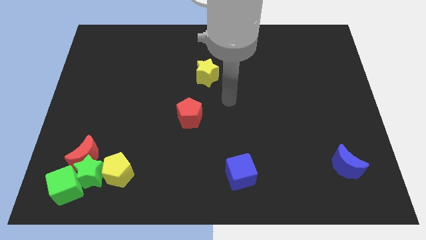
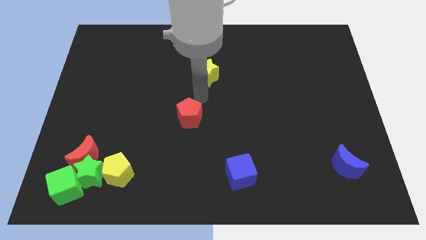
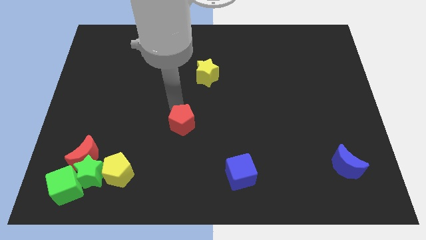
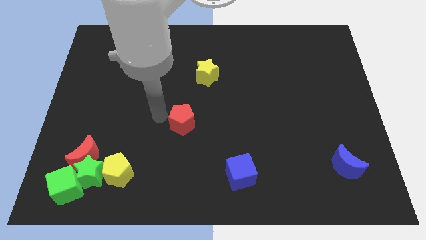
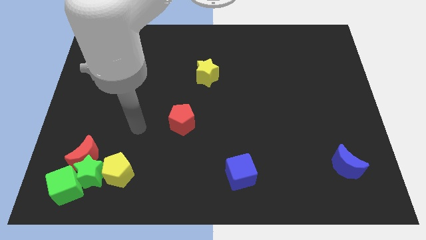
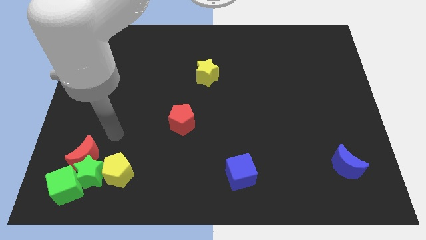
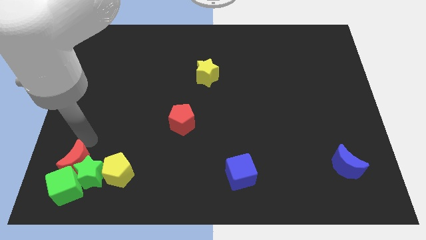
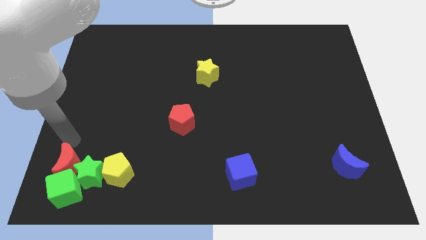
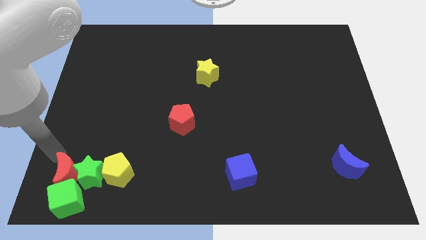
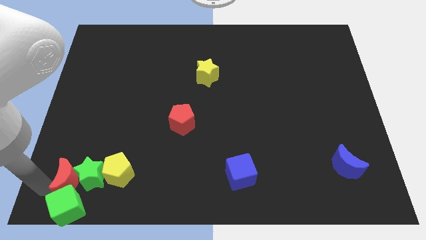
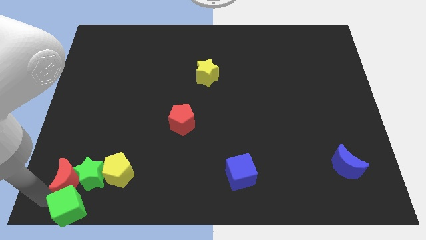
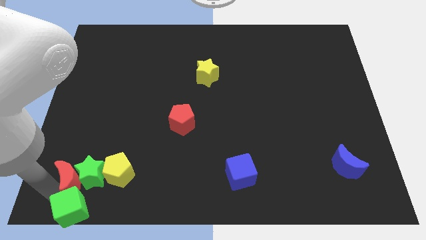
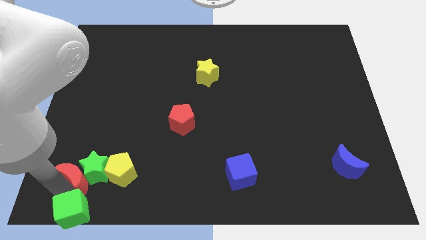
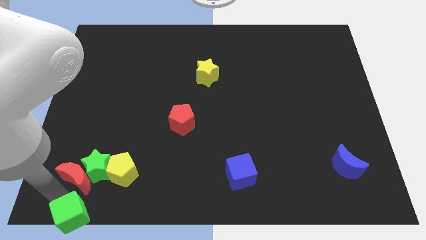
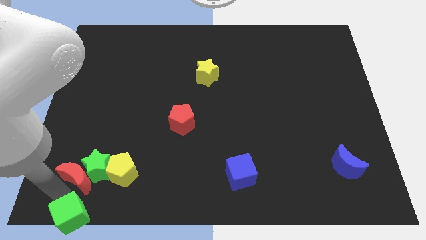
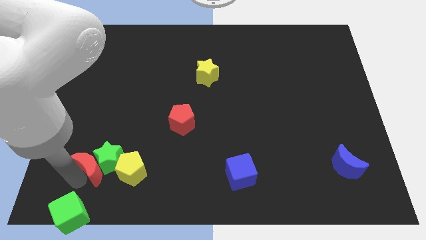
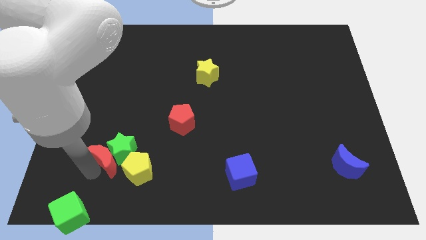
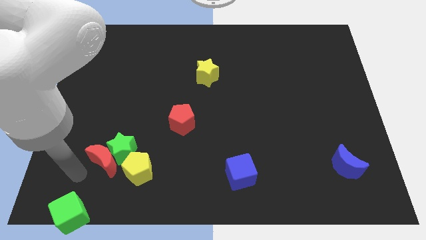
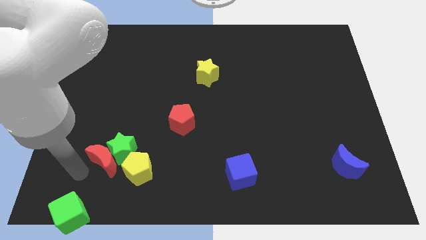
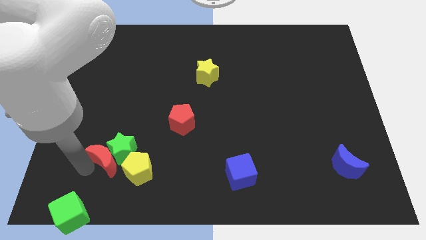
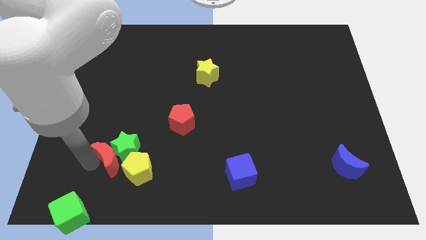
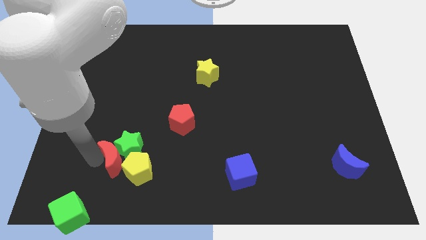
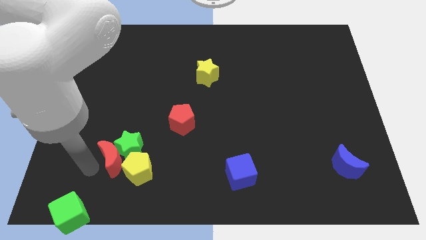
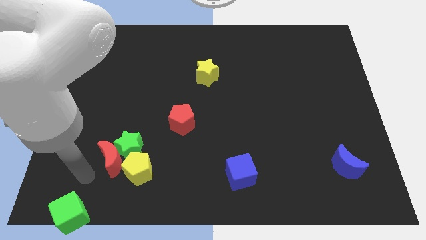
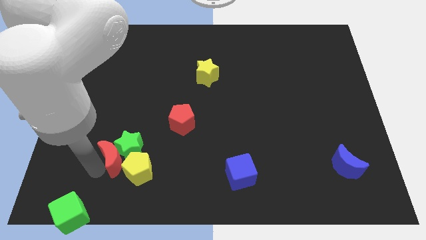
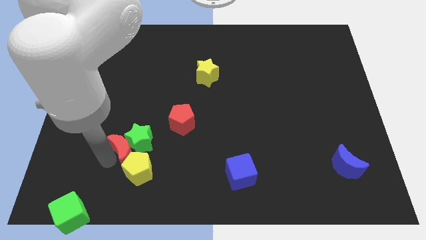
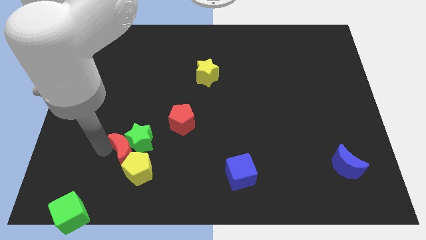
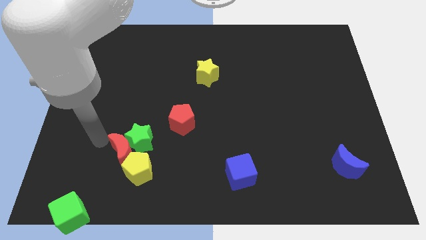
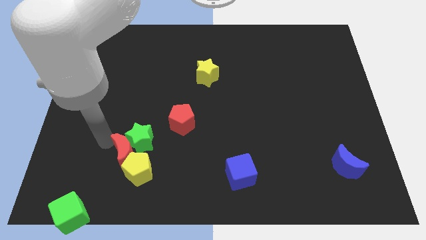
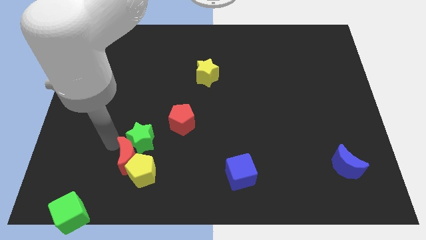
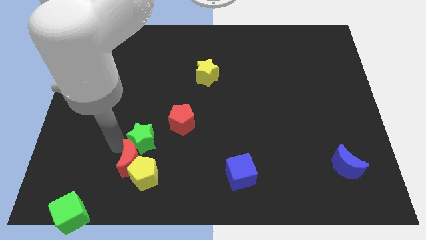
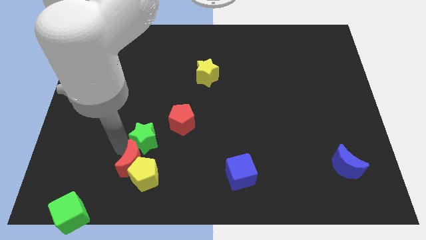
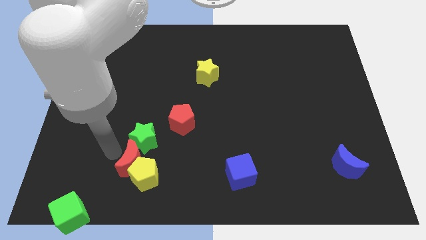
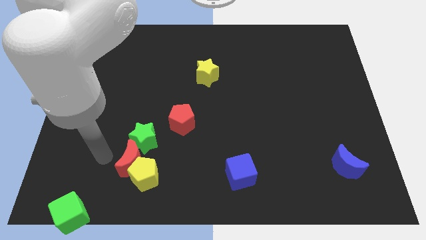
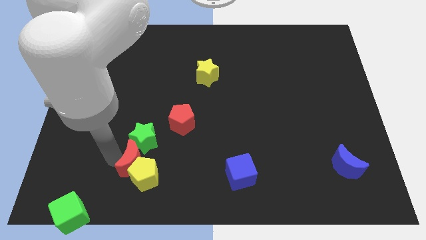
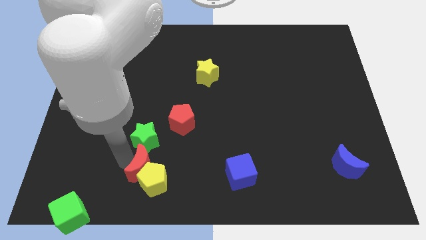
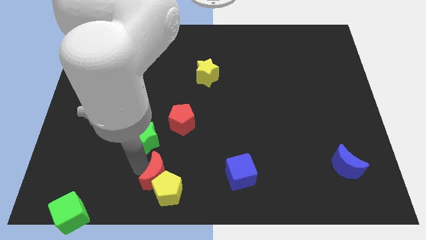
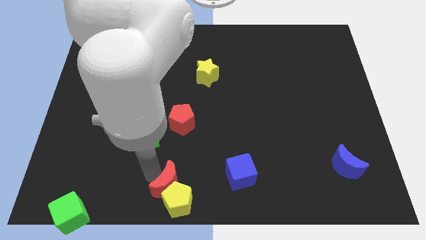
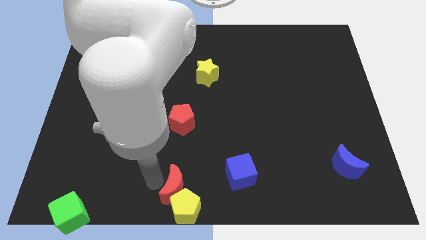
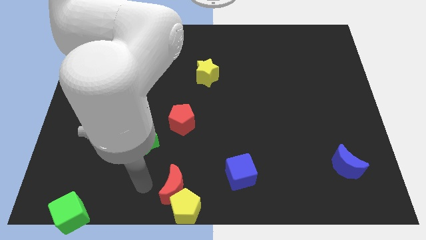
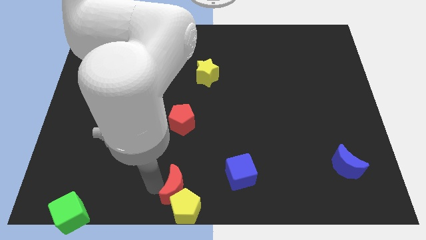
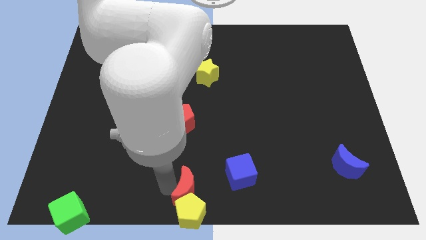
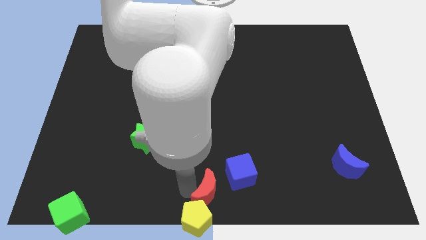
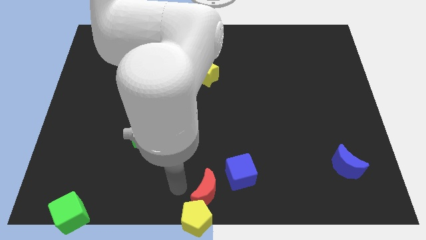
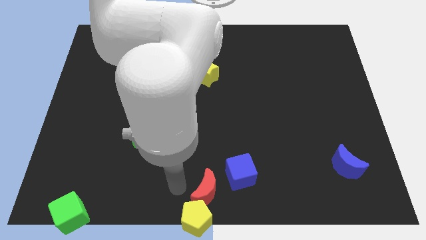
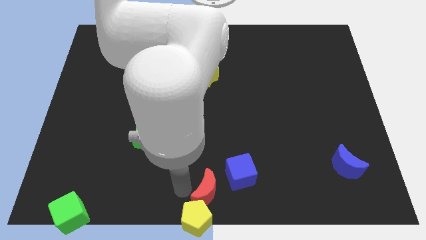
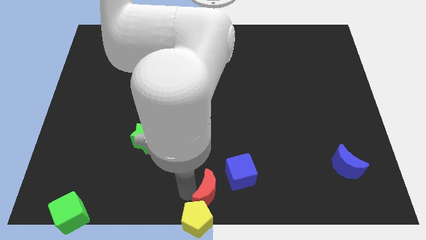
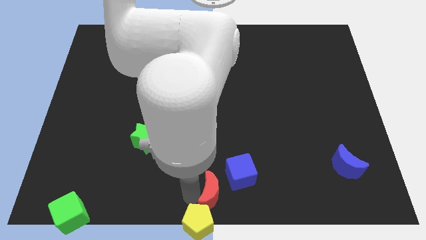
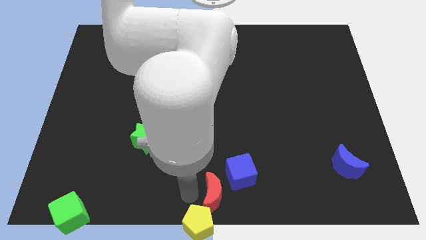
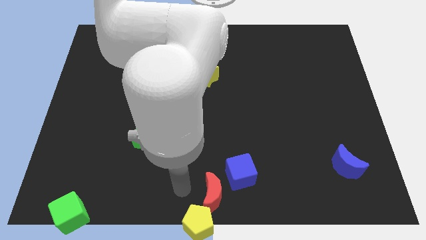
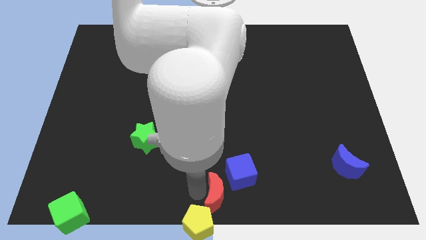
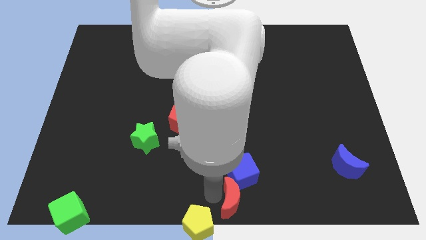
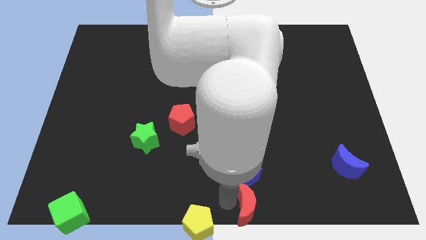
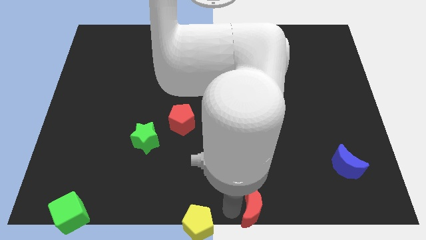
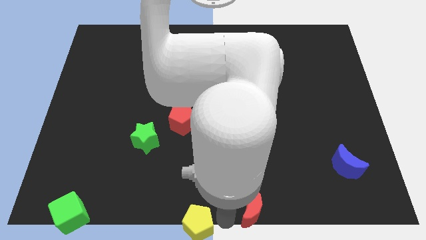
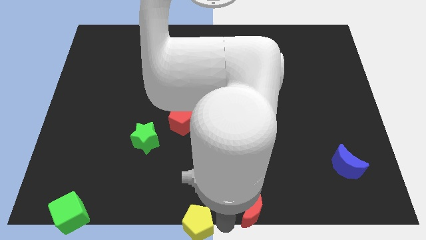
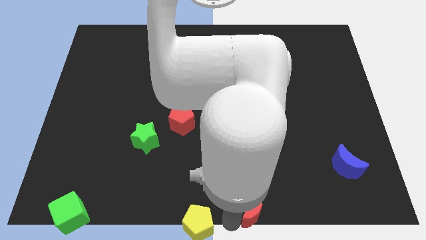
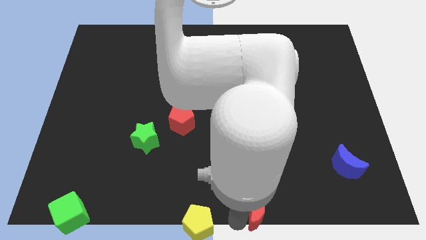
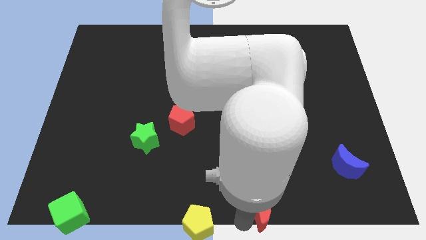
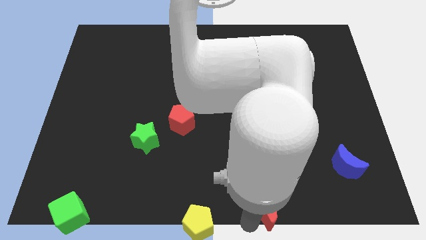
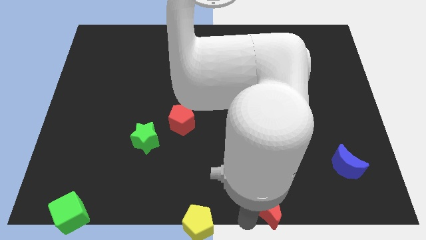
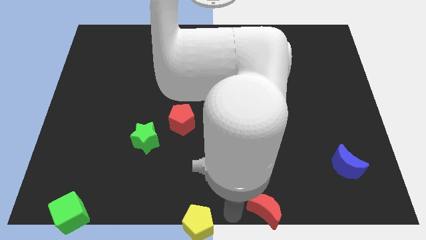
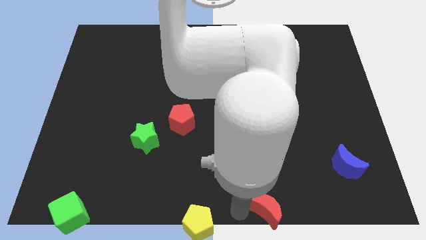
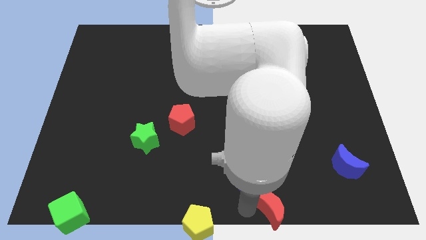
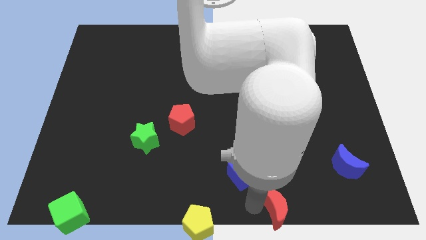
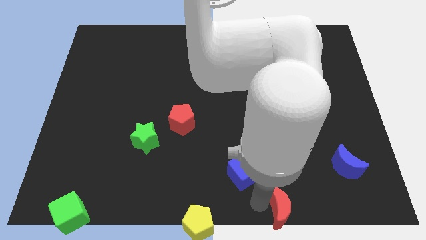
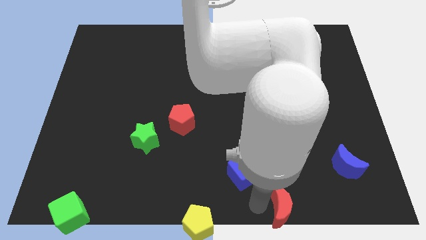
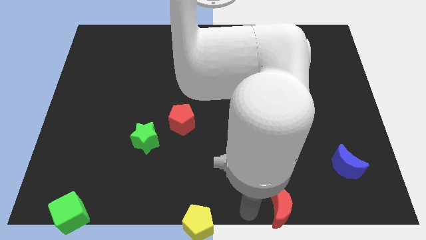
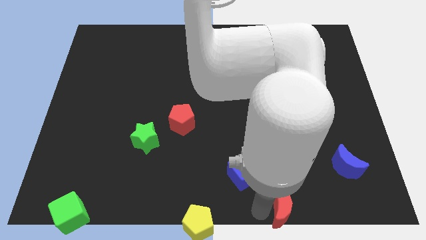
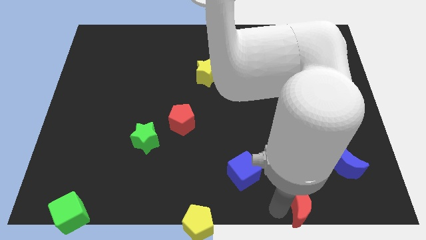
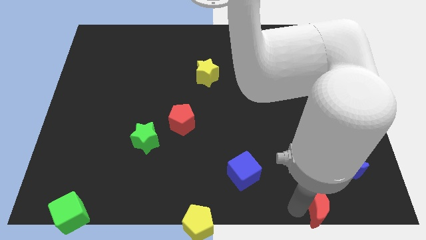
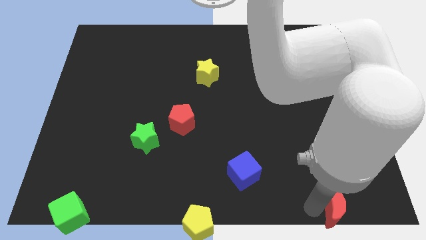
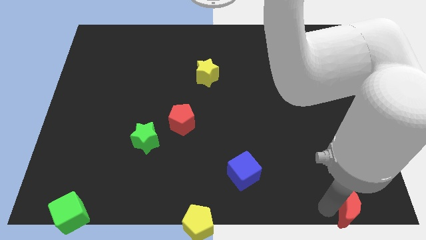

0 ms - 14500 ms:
move the red moon to the lower right corner
